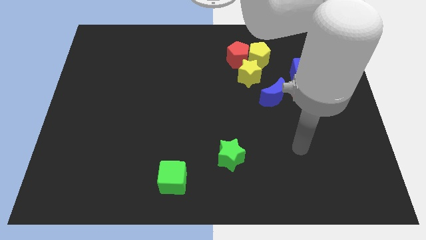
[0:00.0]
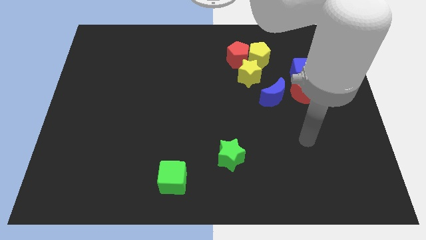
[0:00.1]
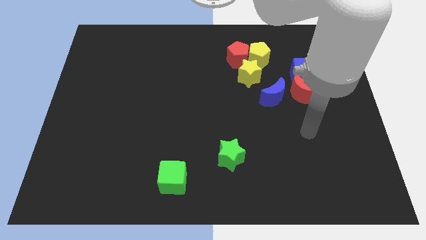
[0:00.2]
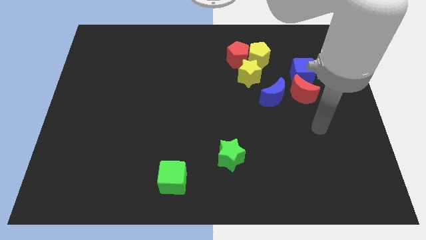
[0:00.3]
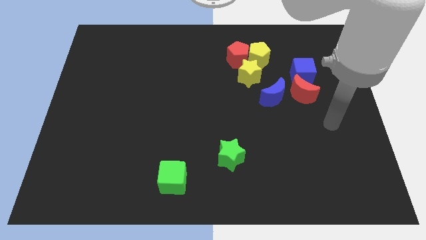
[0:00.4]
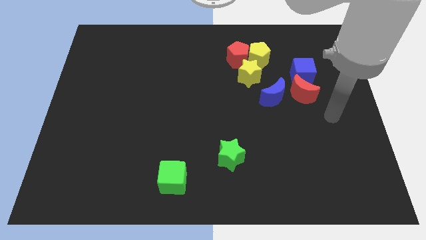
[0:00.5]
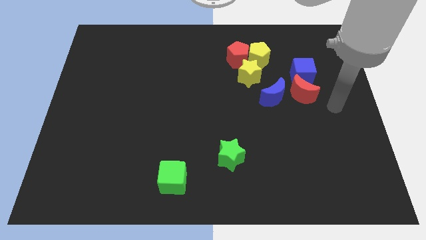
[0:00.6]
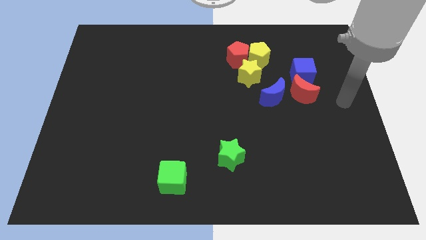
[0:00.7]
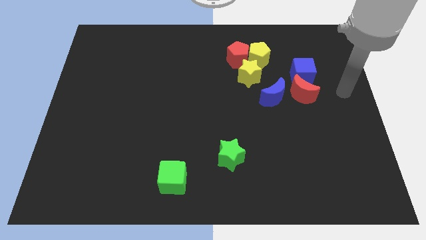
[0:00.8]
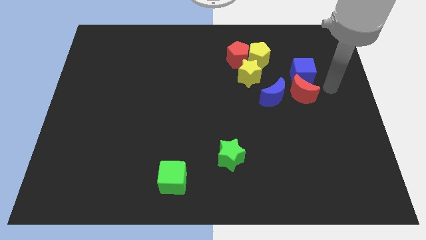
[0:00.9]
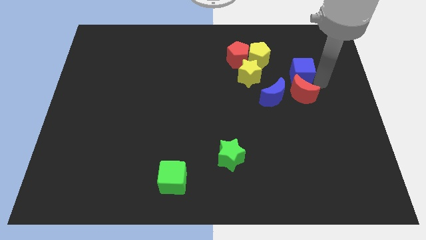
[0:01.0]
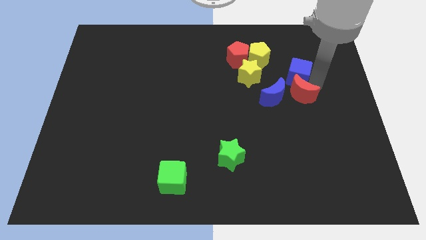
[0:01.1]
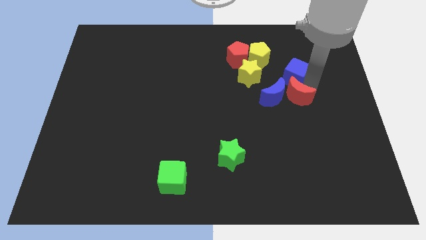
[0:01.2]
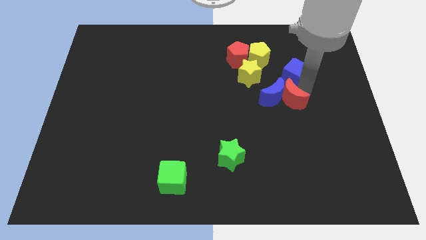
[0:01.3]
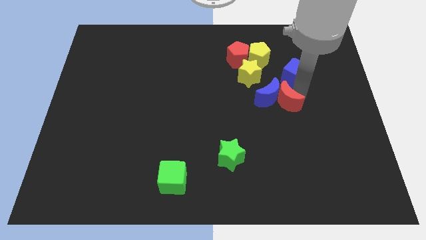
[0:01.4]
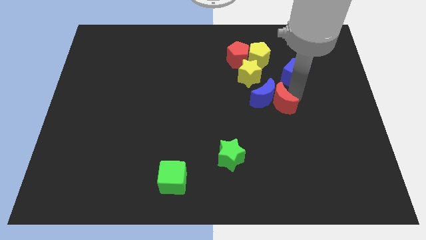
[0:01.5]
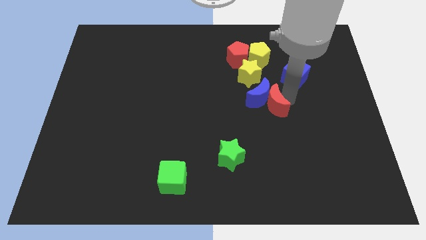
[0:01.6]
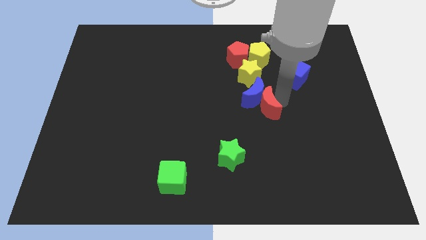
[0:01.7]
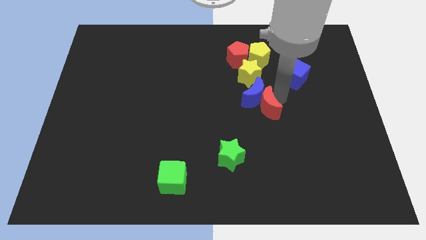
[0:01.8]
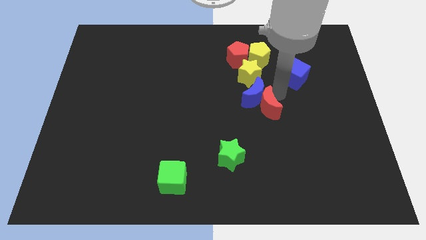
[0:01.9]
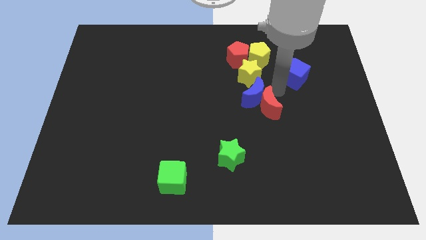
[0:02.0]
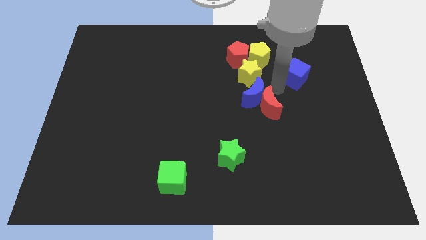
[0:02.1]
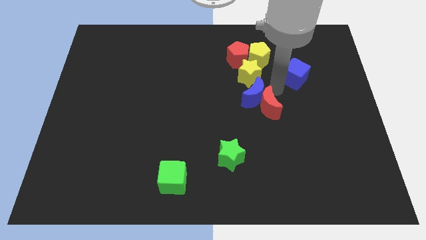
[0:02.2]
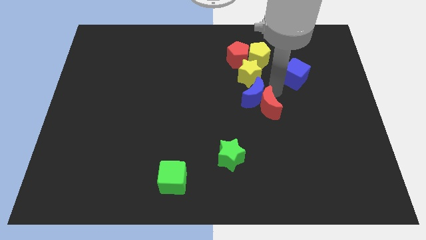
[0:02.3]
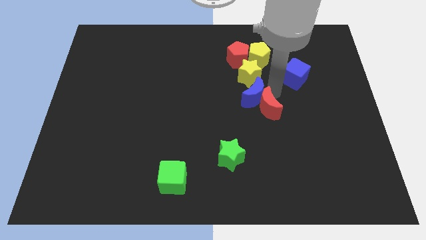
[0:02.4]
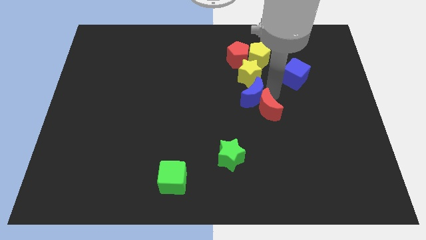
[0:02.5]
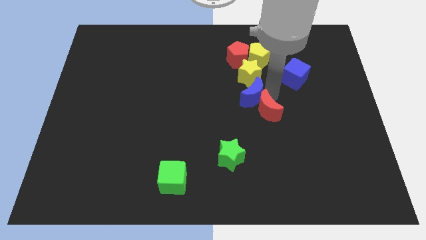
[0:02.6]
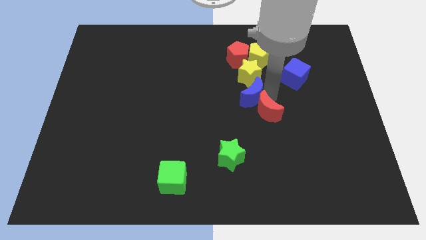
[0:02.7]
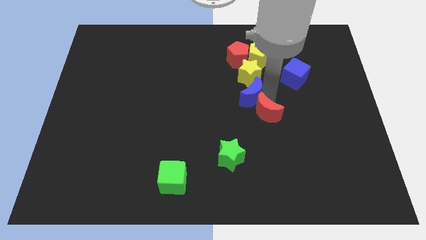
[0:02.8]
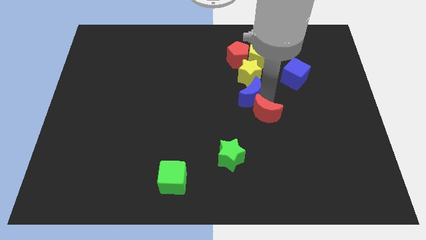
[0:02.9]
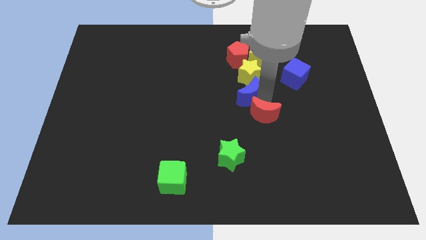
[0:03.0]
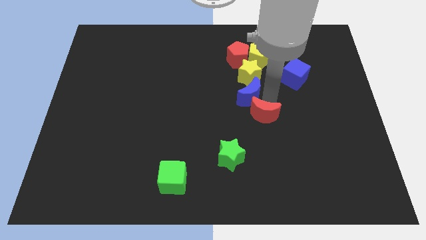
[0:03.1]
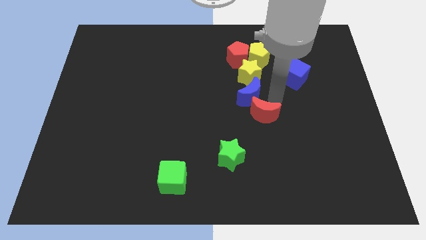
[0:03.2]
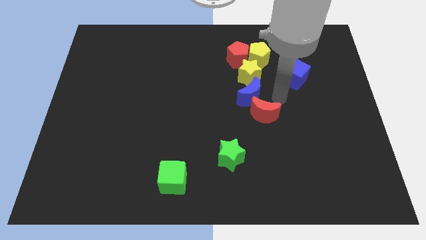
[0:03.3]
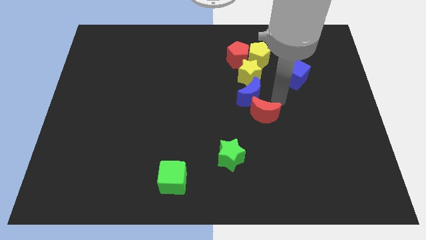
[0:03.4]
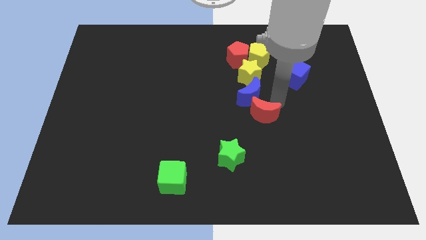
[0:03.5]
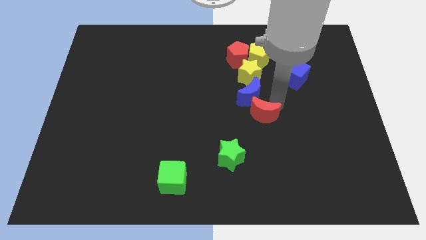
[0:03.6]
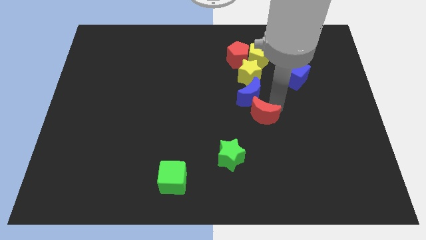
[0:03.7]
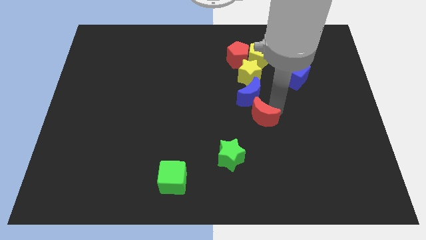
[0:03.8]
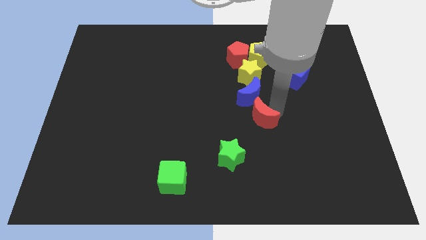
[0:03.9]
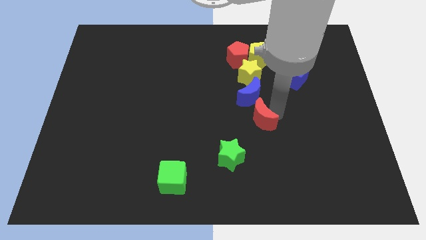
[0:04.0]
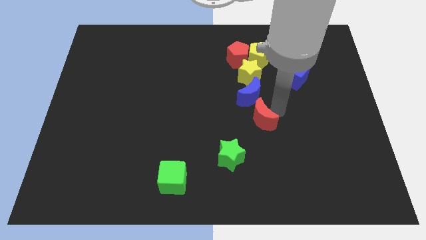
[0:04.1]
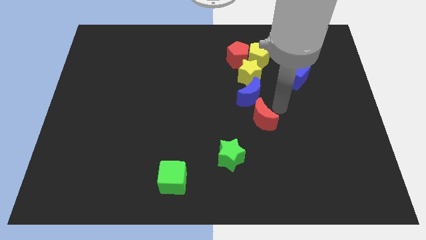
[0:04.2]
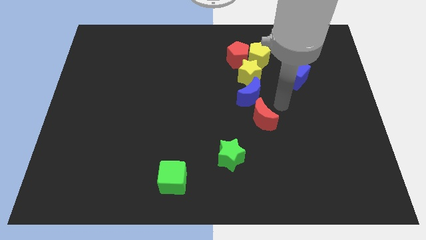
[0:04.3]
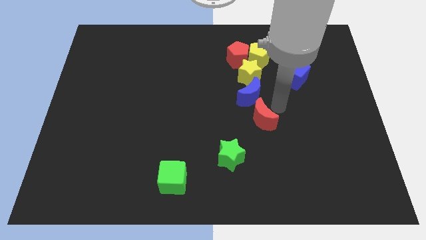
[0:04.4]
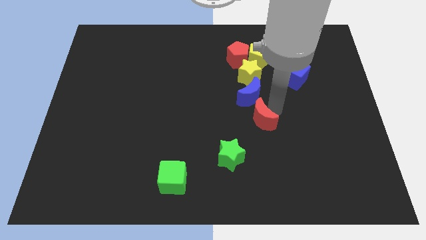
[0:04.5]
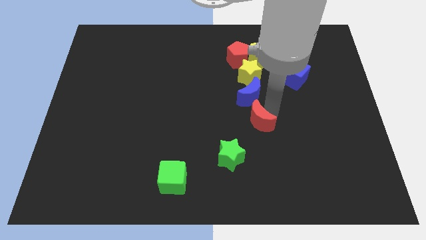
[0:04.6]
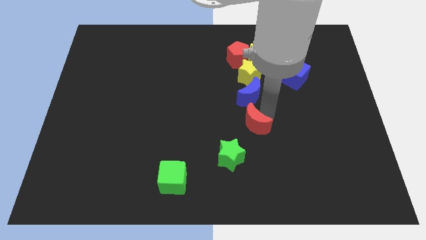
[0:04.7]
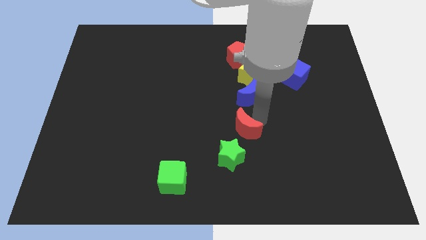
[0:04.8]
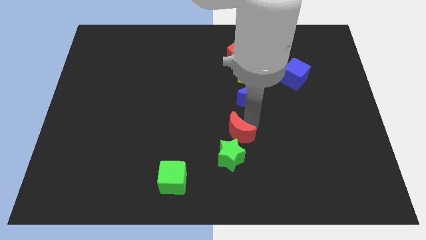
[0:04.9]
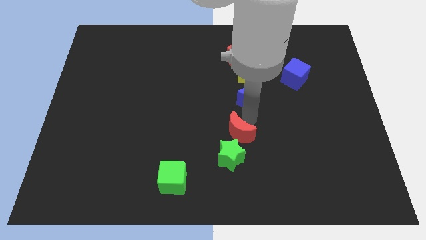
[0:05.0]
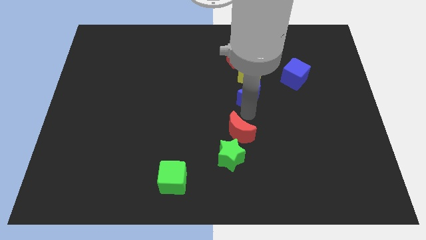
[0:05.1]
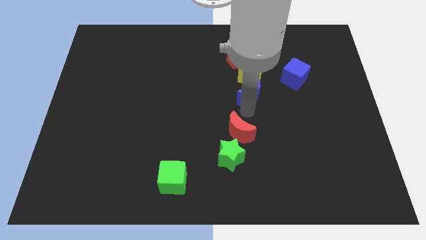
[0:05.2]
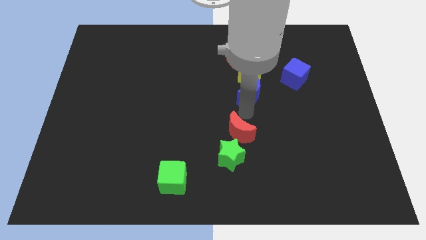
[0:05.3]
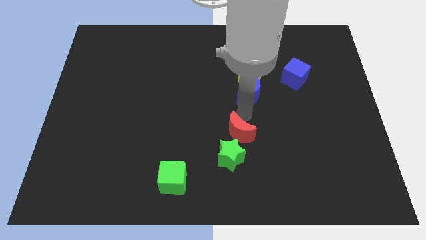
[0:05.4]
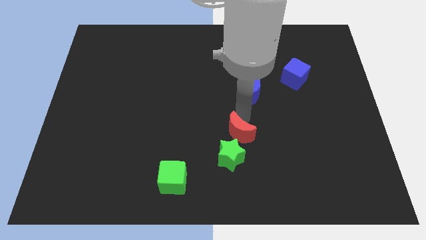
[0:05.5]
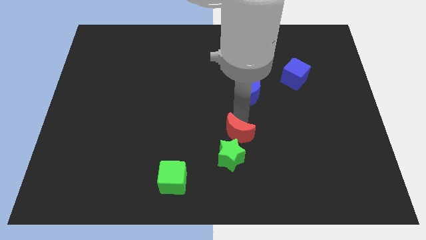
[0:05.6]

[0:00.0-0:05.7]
put the red moon to the green star
